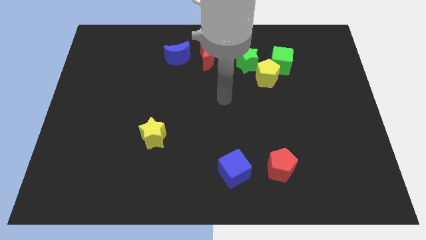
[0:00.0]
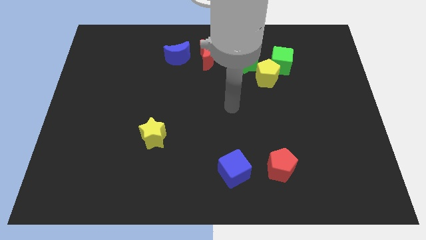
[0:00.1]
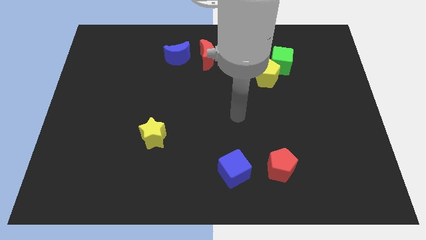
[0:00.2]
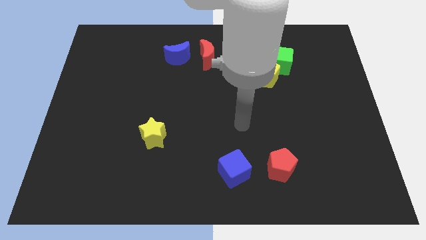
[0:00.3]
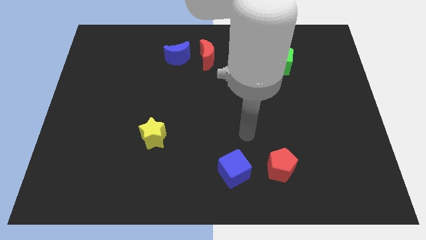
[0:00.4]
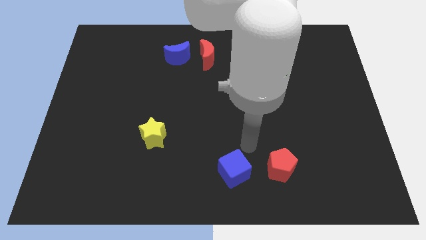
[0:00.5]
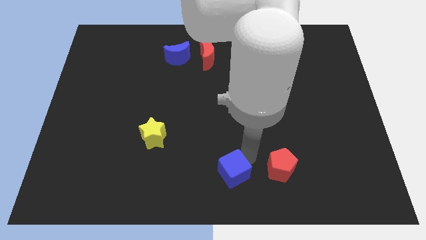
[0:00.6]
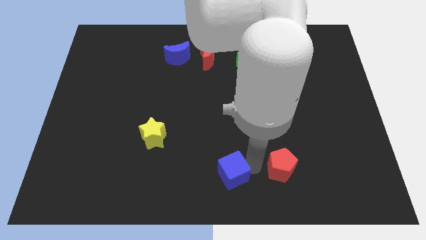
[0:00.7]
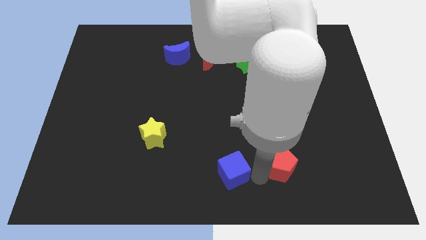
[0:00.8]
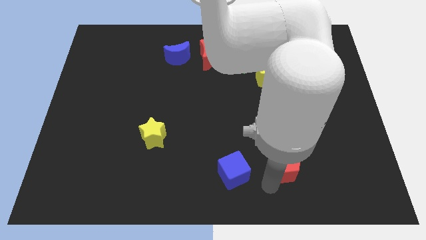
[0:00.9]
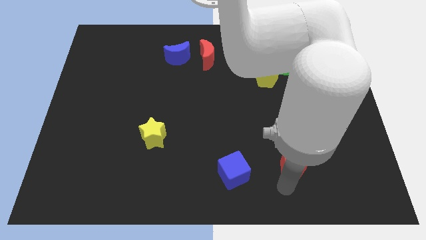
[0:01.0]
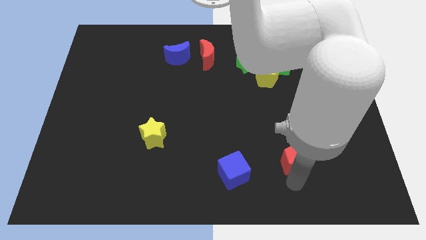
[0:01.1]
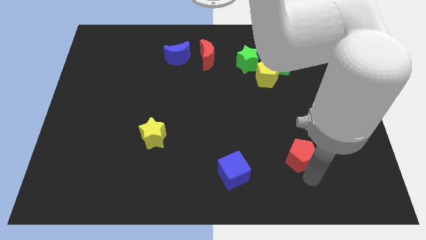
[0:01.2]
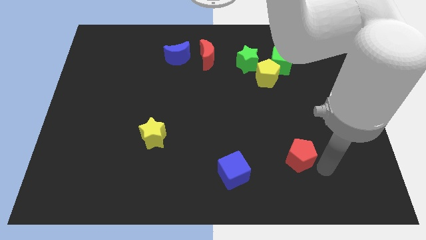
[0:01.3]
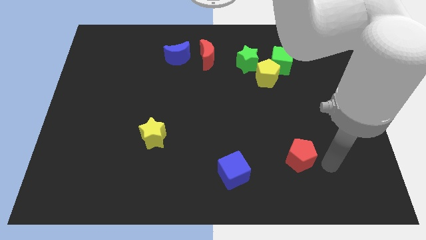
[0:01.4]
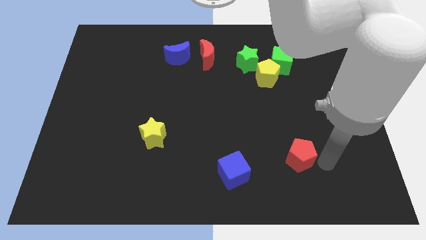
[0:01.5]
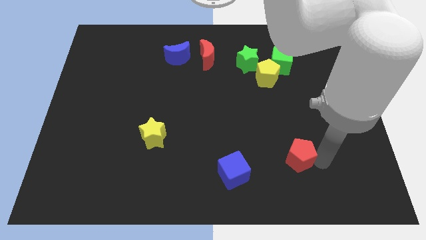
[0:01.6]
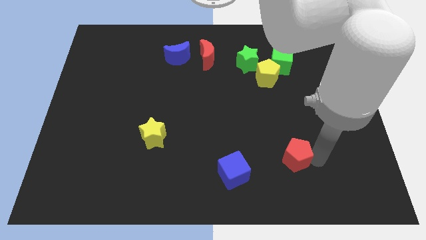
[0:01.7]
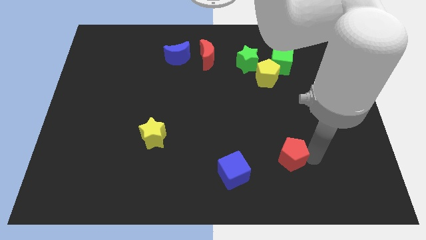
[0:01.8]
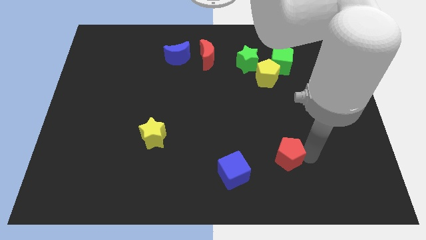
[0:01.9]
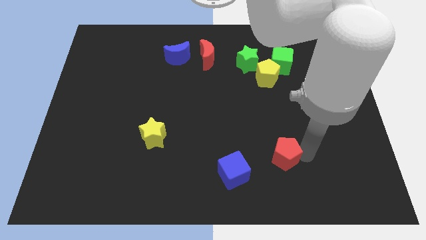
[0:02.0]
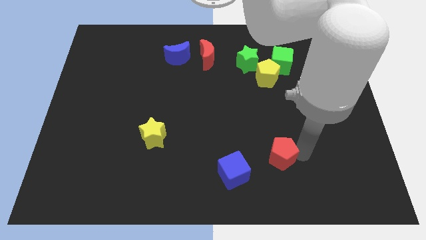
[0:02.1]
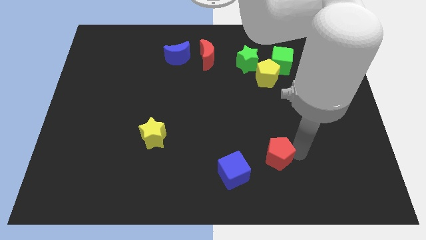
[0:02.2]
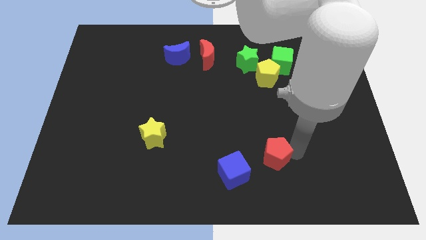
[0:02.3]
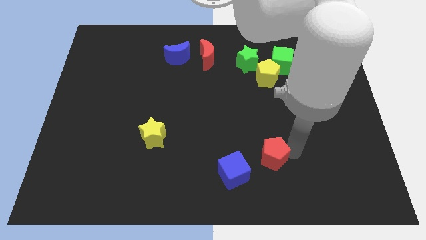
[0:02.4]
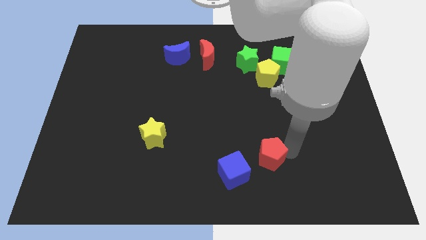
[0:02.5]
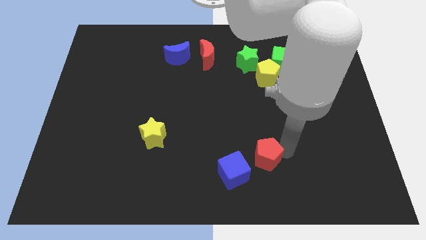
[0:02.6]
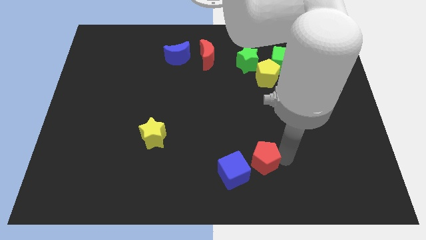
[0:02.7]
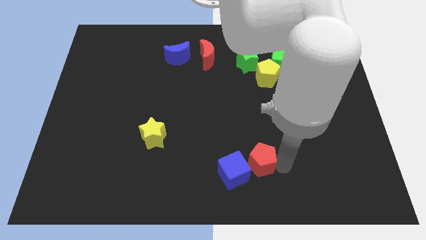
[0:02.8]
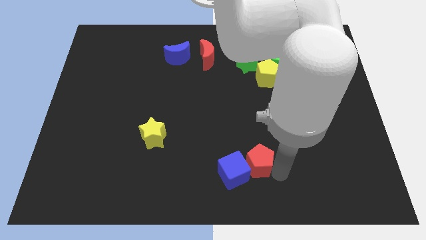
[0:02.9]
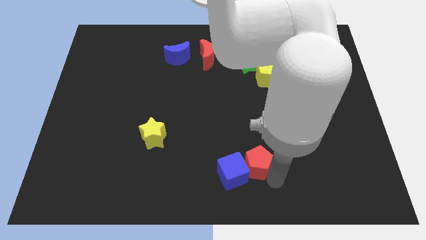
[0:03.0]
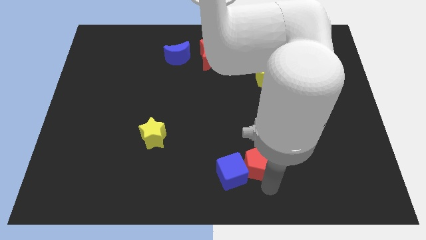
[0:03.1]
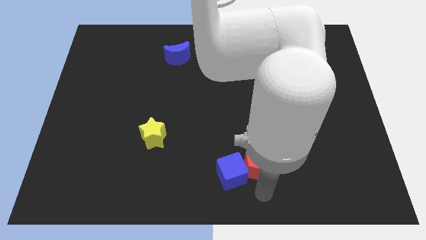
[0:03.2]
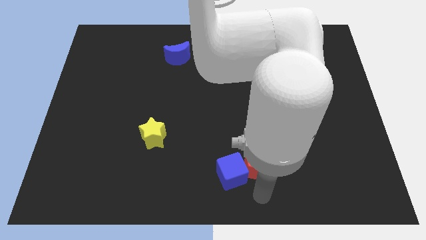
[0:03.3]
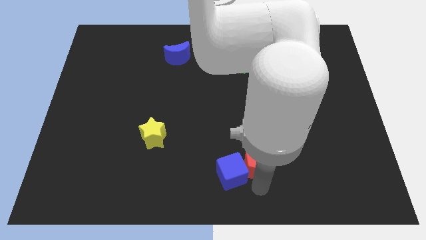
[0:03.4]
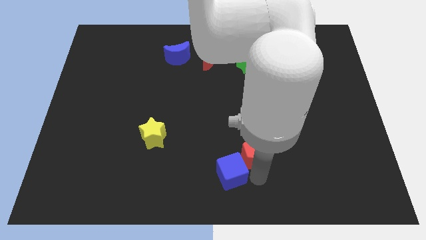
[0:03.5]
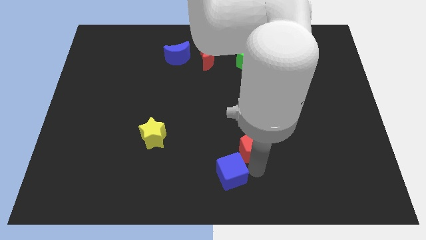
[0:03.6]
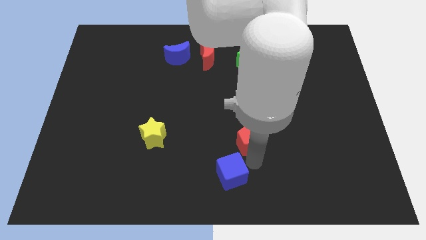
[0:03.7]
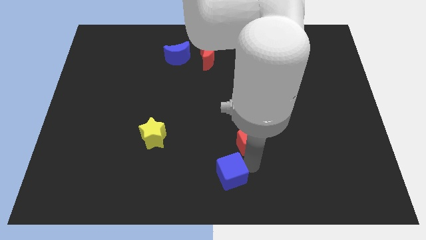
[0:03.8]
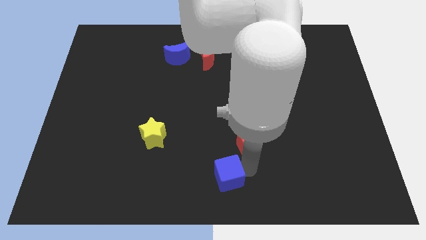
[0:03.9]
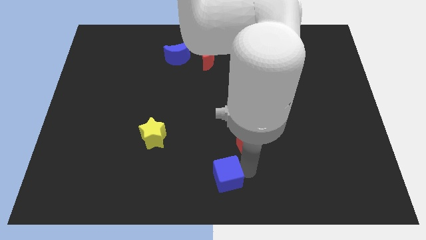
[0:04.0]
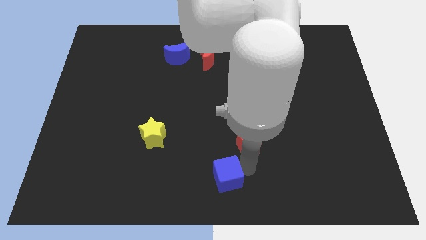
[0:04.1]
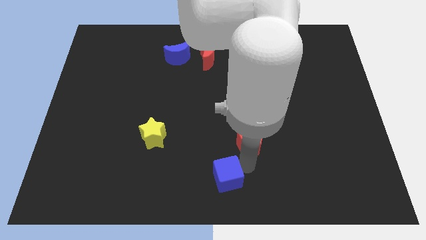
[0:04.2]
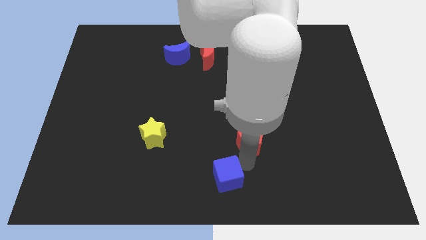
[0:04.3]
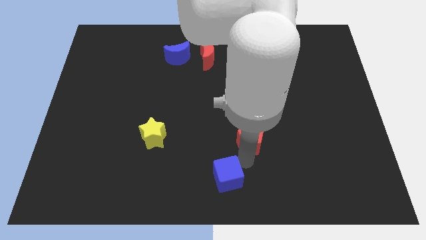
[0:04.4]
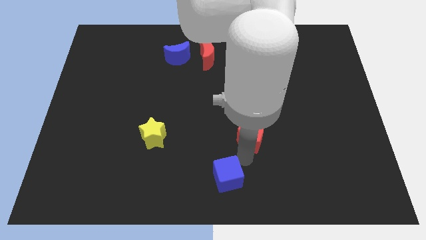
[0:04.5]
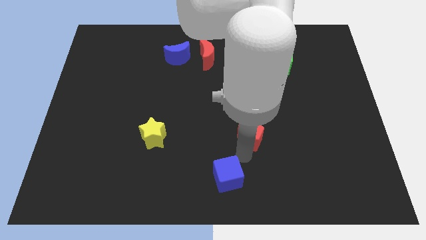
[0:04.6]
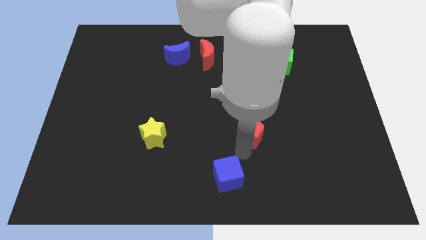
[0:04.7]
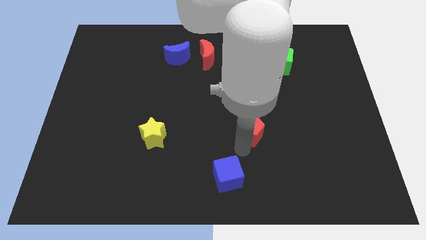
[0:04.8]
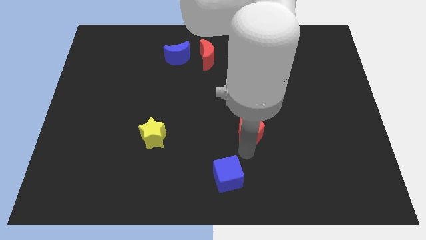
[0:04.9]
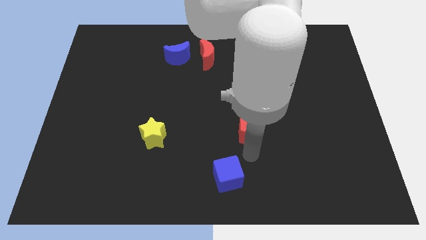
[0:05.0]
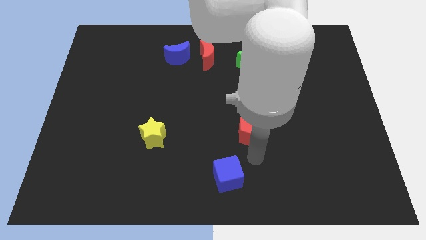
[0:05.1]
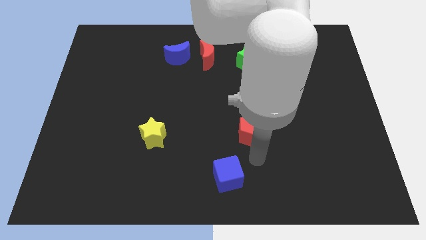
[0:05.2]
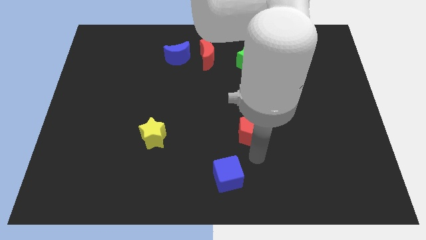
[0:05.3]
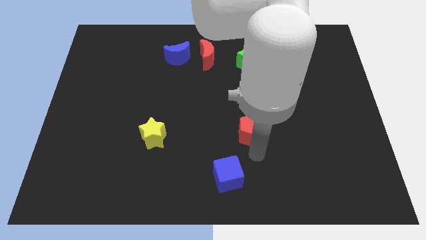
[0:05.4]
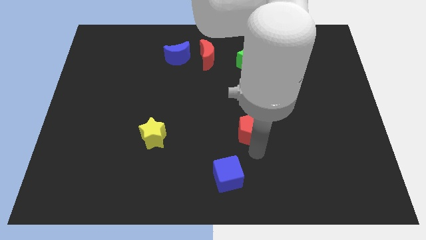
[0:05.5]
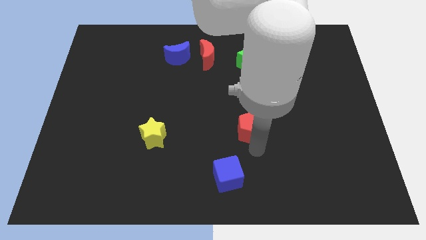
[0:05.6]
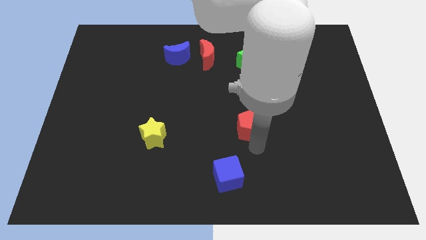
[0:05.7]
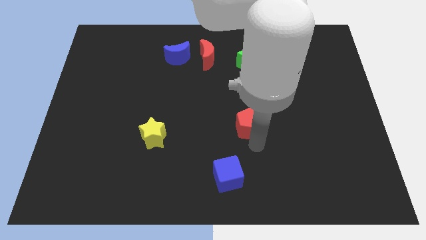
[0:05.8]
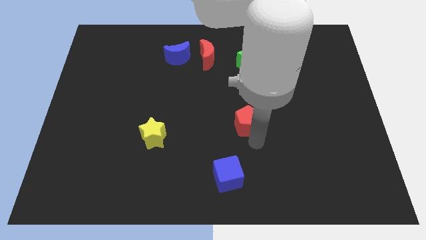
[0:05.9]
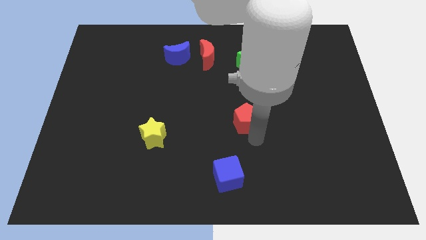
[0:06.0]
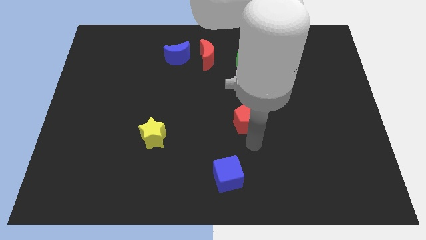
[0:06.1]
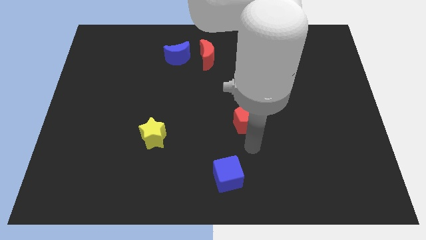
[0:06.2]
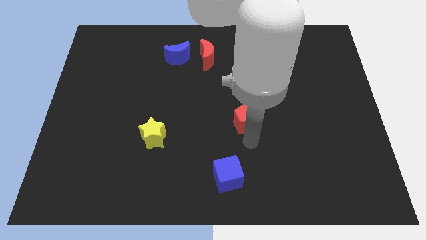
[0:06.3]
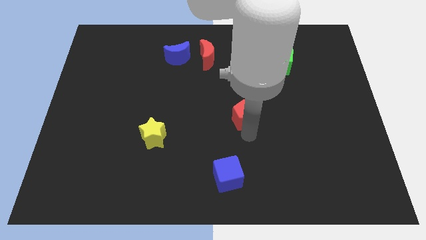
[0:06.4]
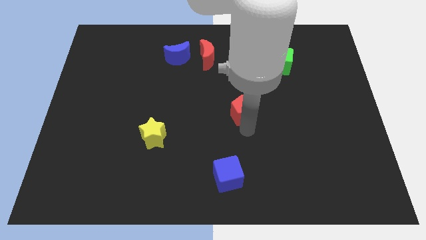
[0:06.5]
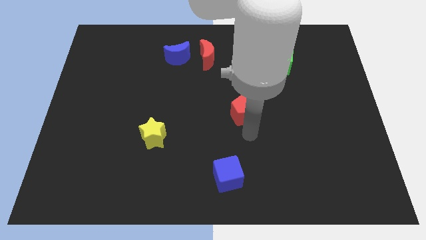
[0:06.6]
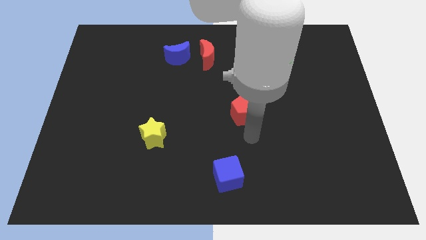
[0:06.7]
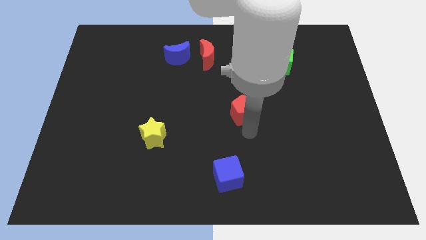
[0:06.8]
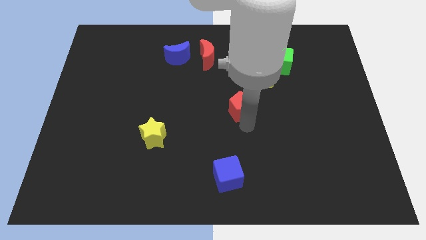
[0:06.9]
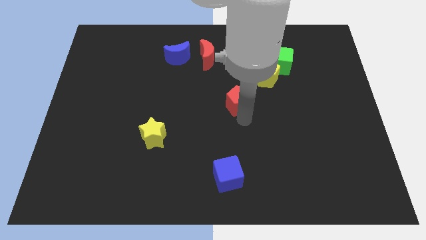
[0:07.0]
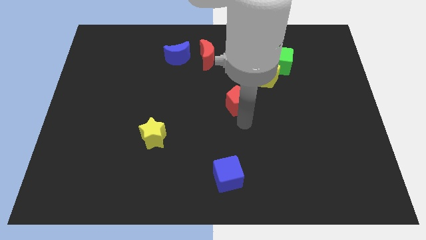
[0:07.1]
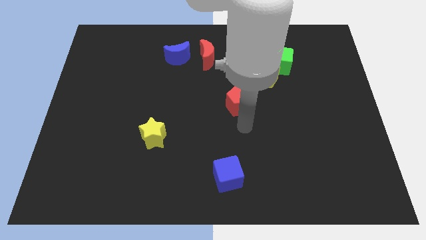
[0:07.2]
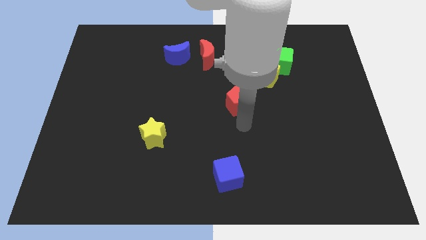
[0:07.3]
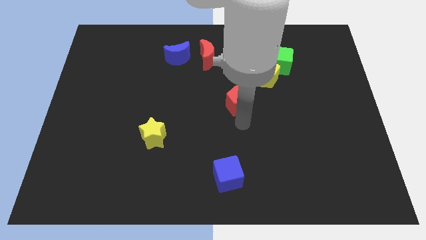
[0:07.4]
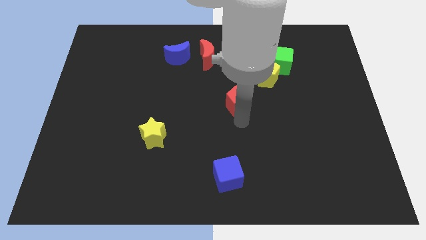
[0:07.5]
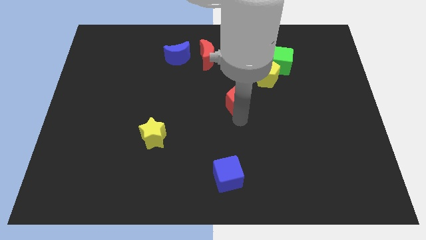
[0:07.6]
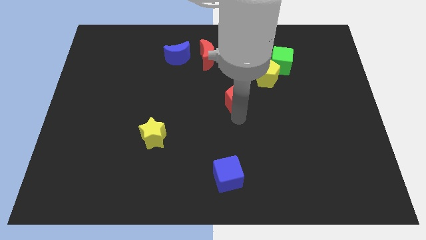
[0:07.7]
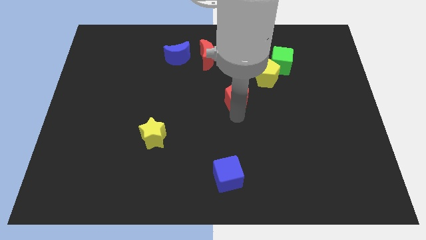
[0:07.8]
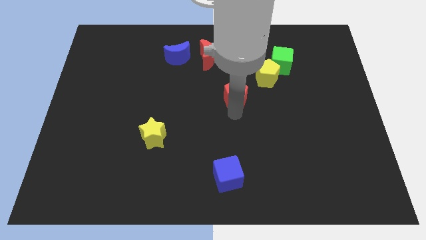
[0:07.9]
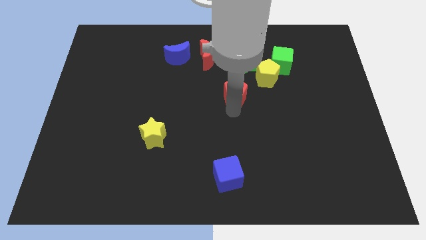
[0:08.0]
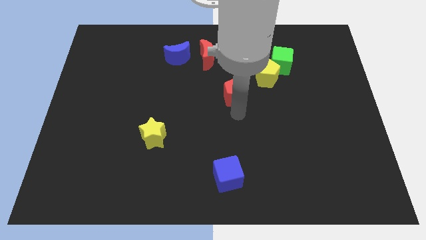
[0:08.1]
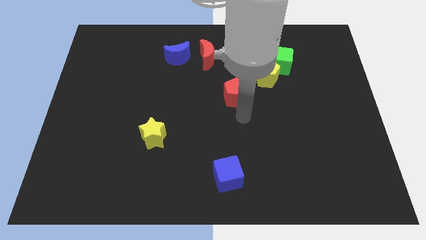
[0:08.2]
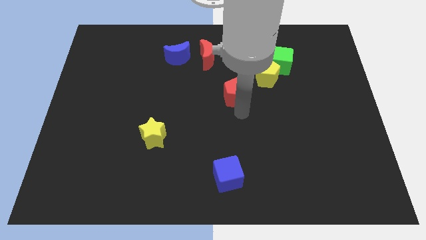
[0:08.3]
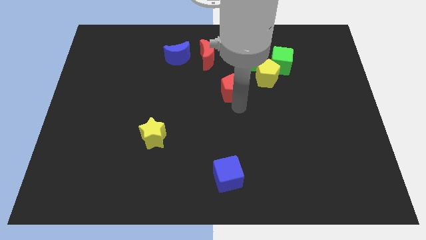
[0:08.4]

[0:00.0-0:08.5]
push the red pentagon to the left of the yellow pentagon
